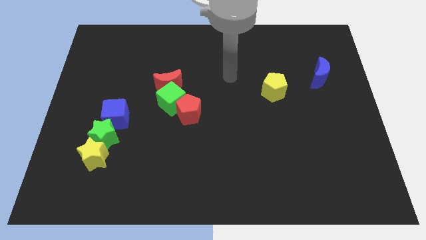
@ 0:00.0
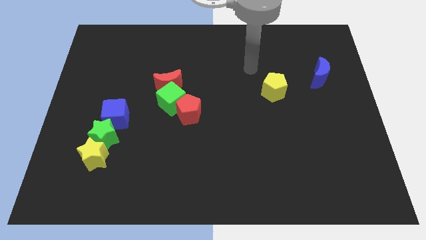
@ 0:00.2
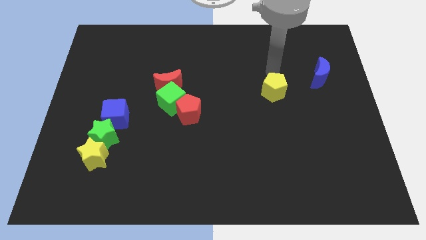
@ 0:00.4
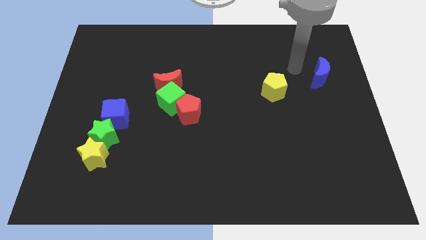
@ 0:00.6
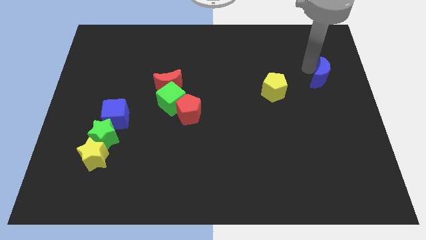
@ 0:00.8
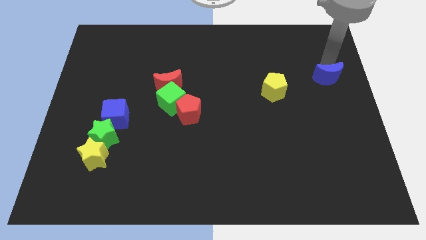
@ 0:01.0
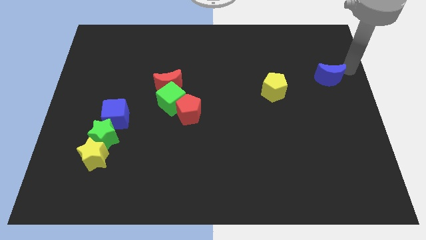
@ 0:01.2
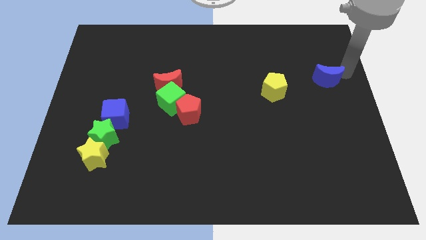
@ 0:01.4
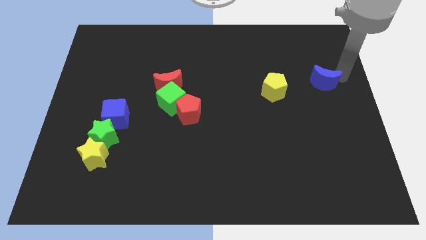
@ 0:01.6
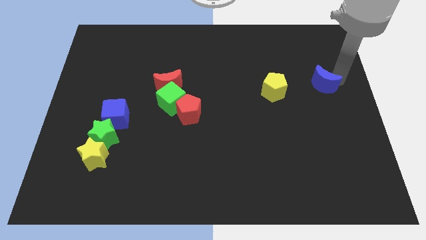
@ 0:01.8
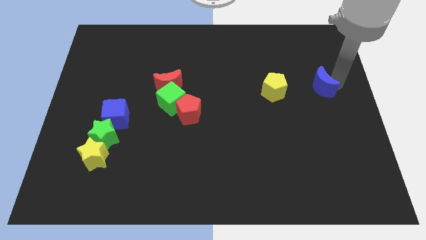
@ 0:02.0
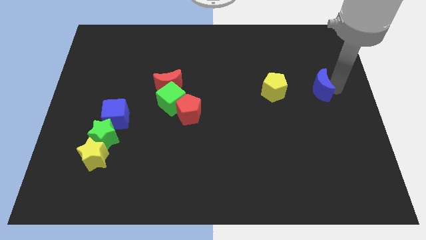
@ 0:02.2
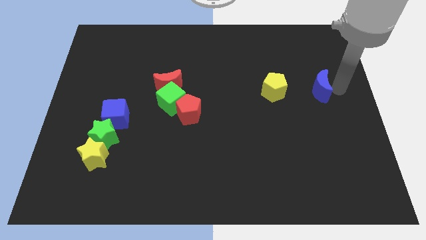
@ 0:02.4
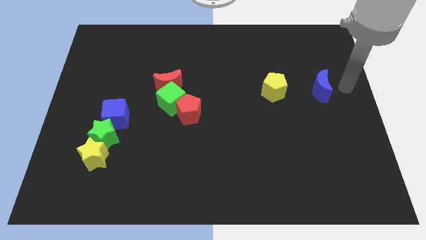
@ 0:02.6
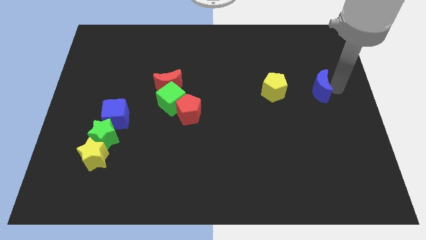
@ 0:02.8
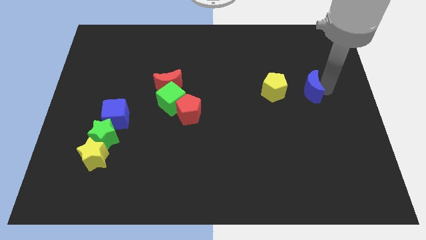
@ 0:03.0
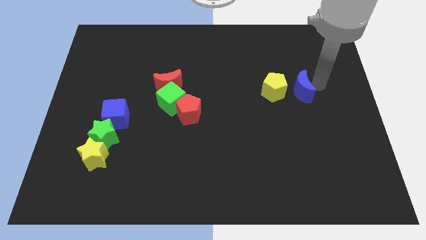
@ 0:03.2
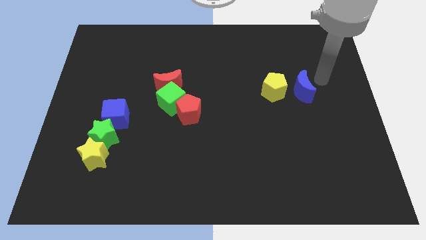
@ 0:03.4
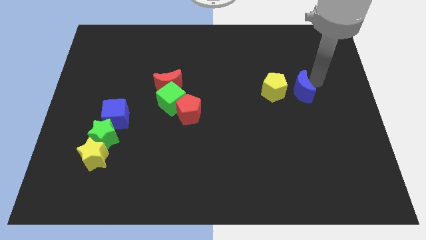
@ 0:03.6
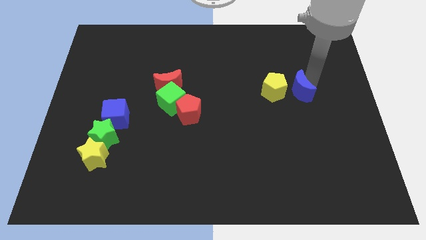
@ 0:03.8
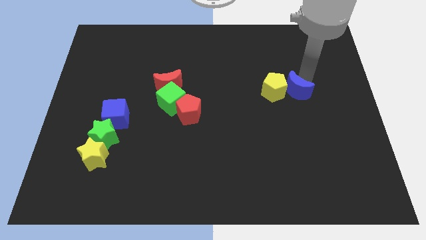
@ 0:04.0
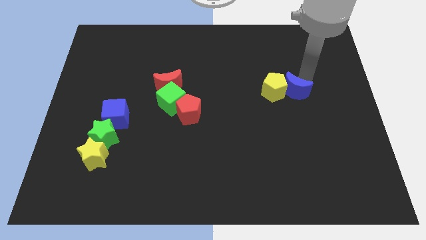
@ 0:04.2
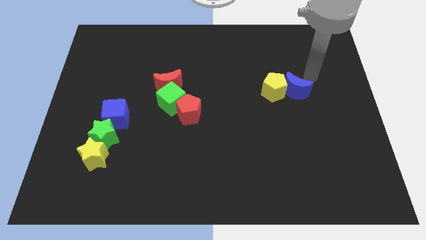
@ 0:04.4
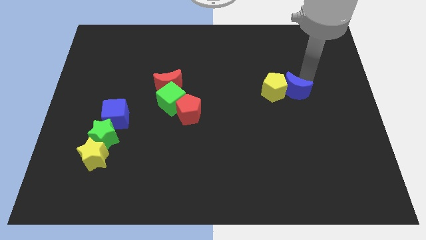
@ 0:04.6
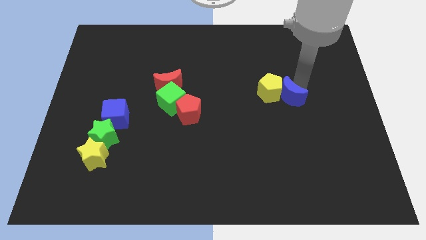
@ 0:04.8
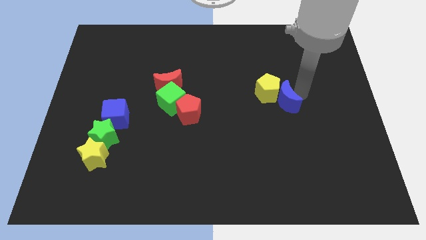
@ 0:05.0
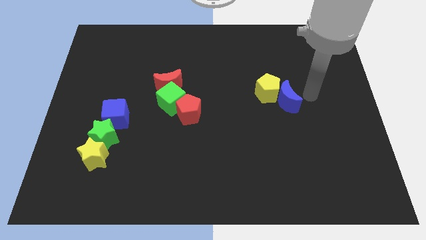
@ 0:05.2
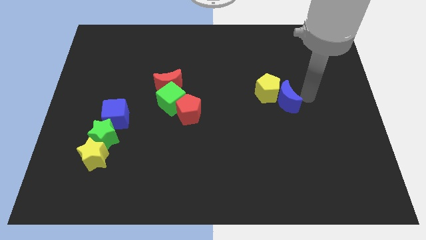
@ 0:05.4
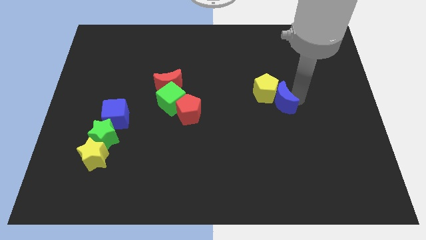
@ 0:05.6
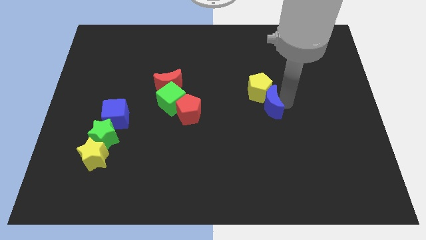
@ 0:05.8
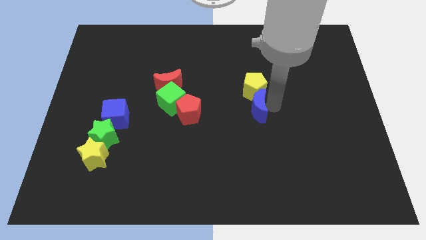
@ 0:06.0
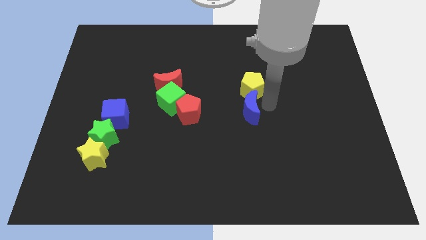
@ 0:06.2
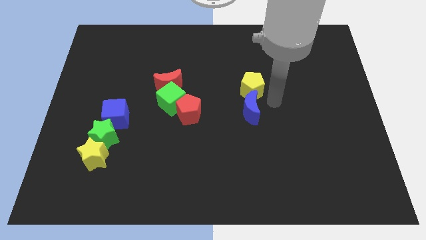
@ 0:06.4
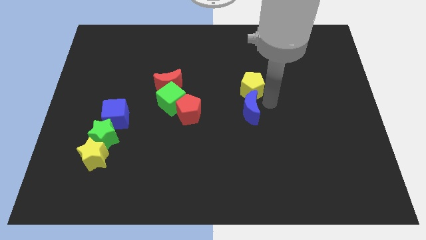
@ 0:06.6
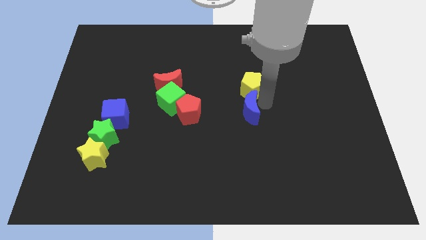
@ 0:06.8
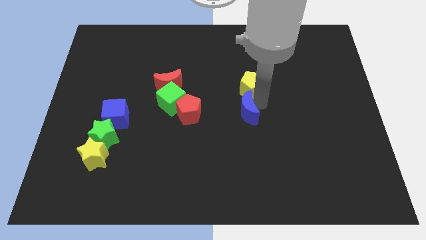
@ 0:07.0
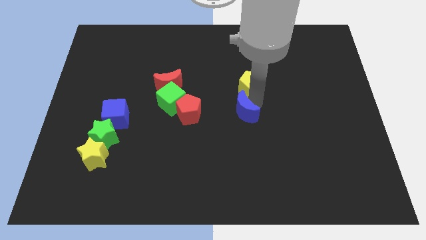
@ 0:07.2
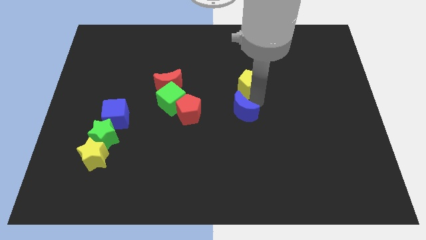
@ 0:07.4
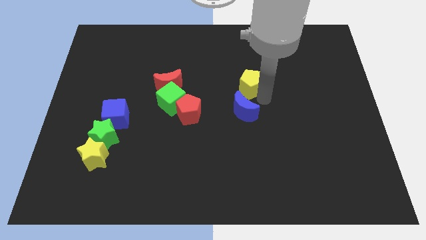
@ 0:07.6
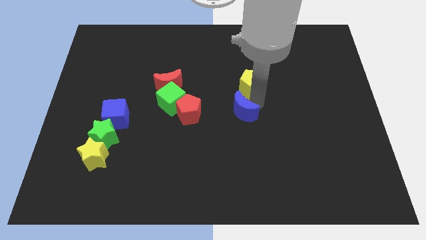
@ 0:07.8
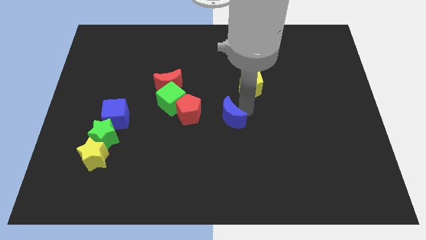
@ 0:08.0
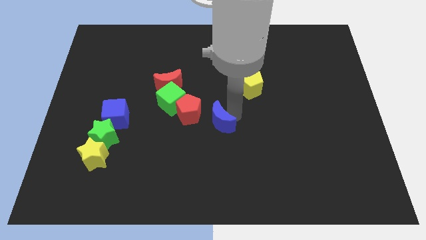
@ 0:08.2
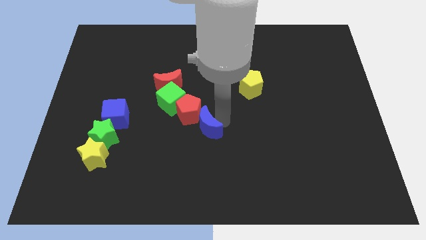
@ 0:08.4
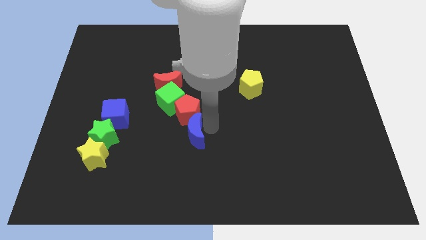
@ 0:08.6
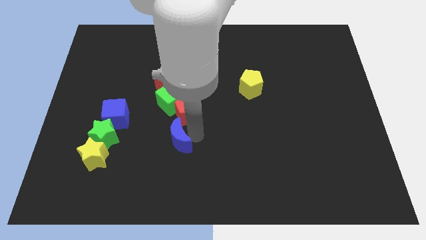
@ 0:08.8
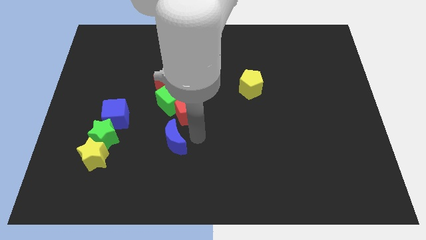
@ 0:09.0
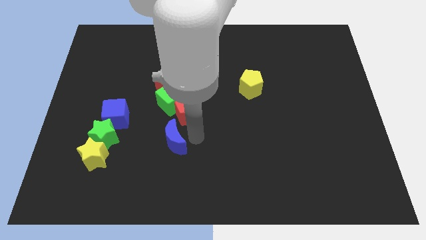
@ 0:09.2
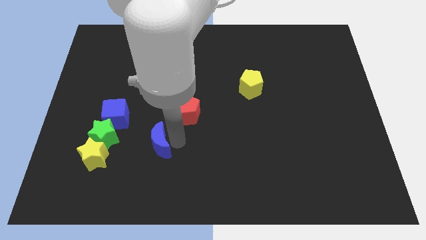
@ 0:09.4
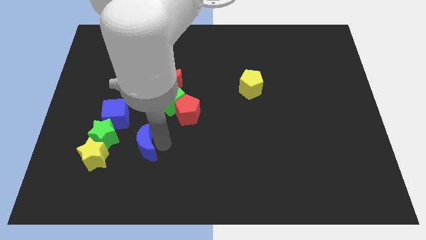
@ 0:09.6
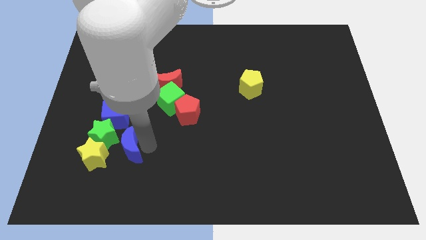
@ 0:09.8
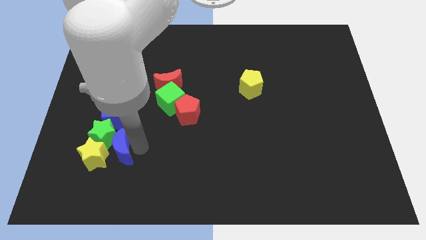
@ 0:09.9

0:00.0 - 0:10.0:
push the blue moon next to the yellow star

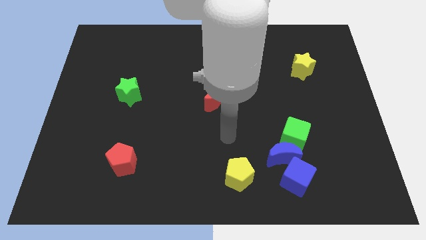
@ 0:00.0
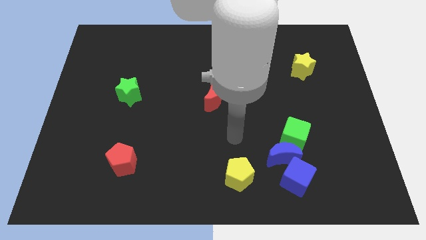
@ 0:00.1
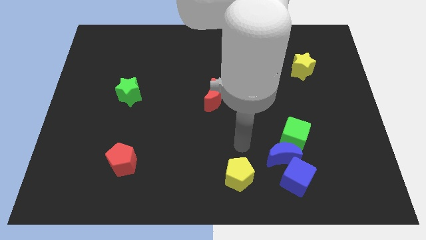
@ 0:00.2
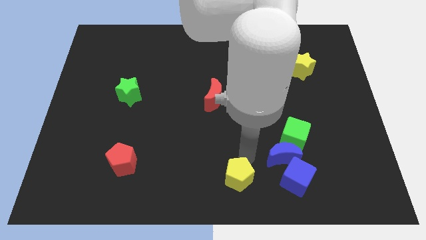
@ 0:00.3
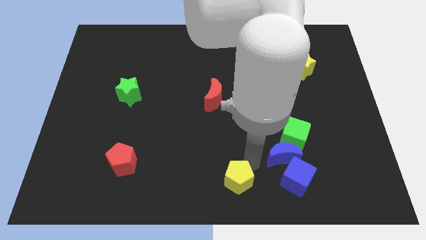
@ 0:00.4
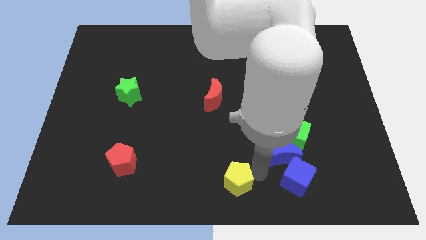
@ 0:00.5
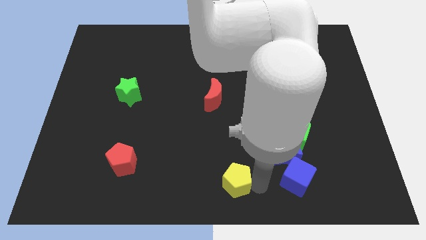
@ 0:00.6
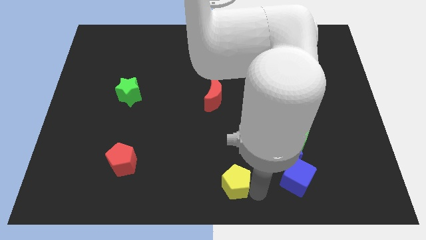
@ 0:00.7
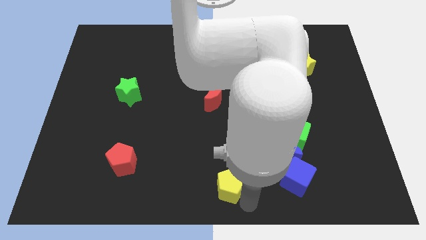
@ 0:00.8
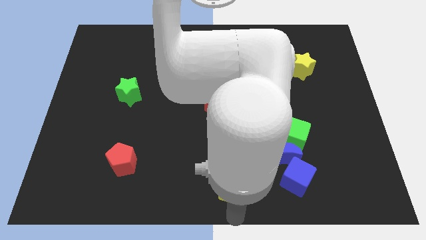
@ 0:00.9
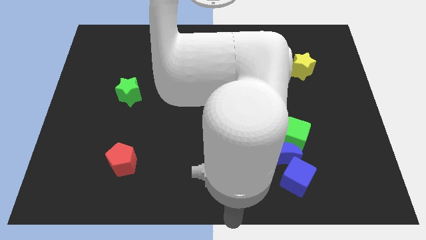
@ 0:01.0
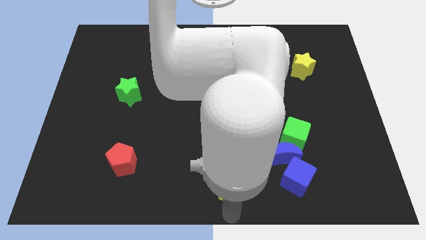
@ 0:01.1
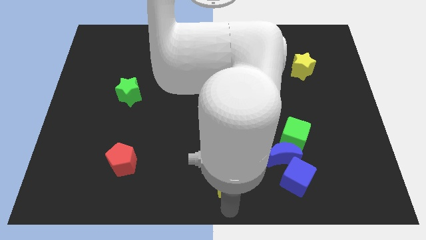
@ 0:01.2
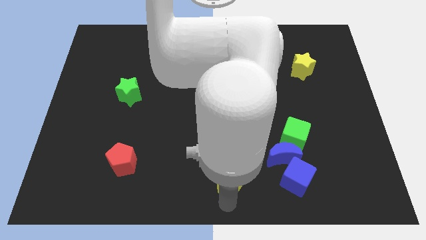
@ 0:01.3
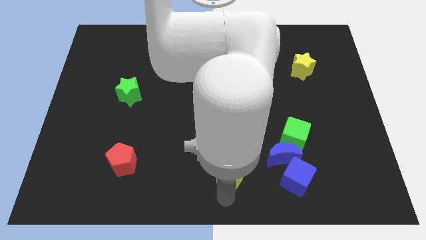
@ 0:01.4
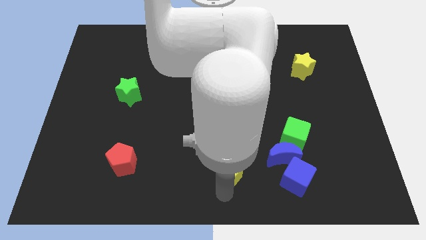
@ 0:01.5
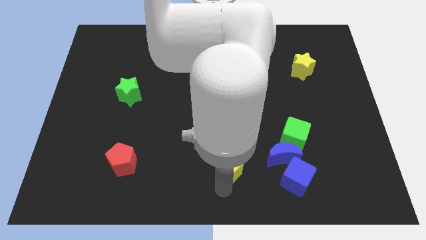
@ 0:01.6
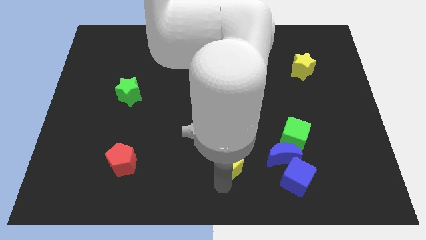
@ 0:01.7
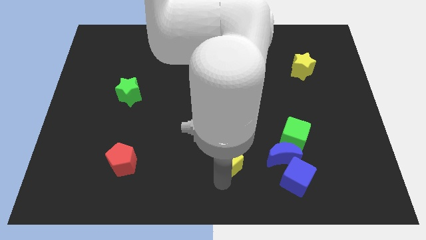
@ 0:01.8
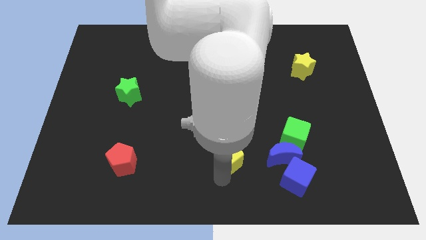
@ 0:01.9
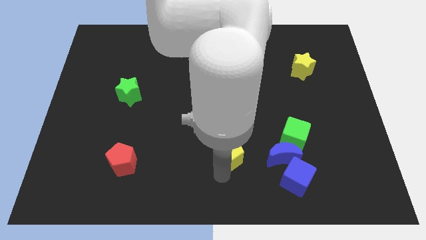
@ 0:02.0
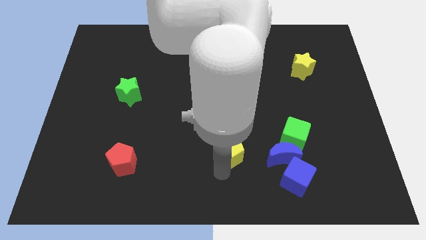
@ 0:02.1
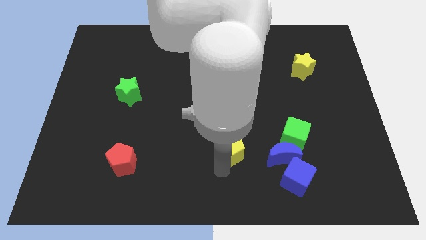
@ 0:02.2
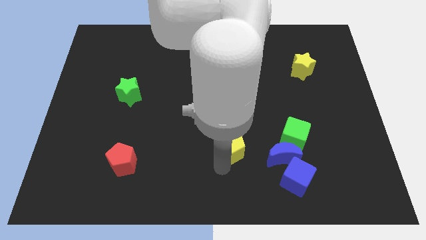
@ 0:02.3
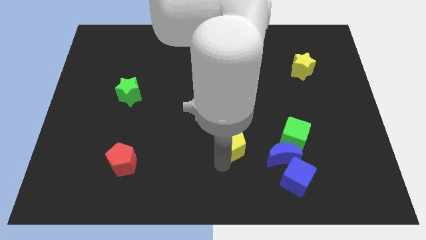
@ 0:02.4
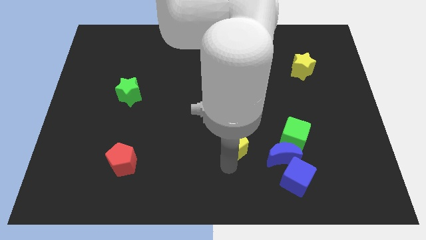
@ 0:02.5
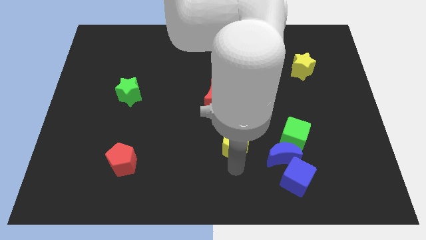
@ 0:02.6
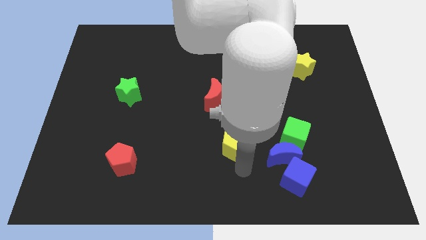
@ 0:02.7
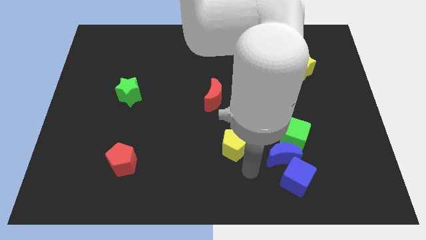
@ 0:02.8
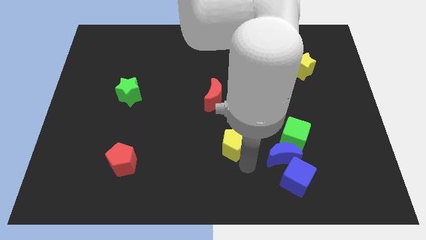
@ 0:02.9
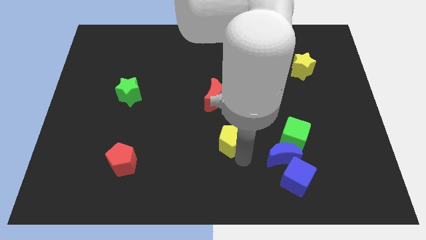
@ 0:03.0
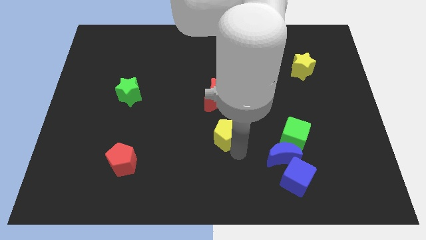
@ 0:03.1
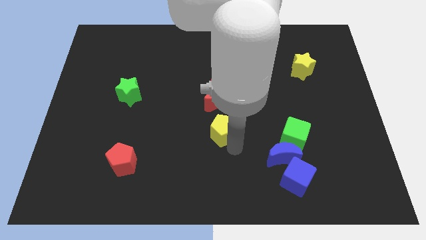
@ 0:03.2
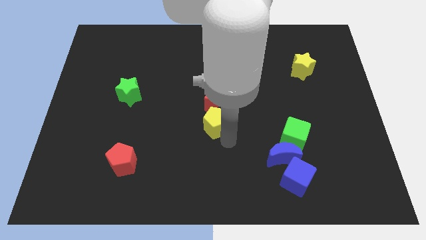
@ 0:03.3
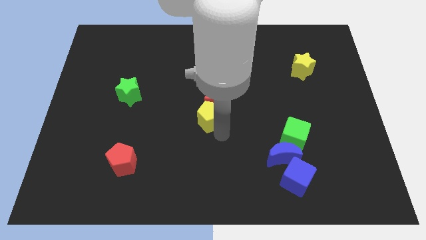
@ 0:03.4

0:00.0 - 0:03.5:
slide the yellow pentagon close to the red moon
